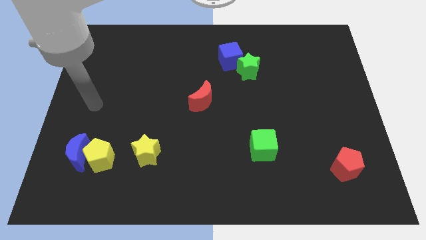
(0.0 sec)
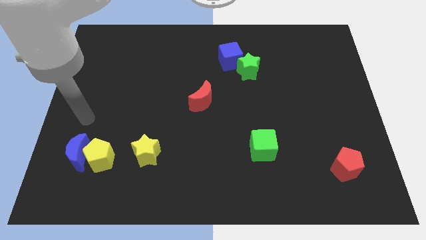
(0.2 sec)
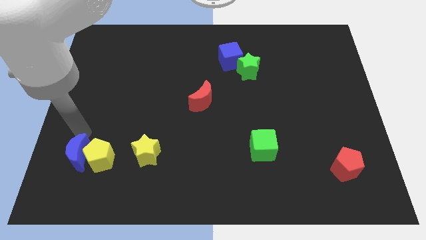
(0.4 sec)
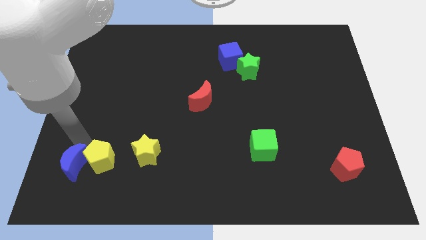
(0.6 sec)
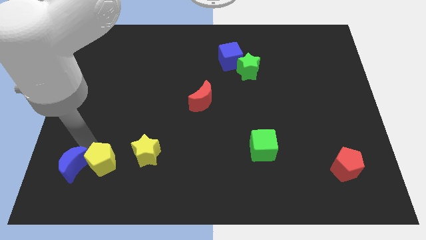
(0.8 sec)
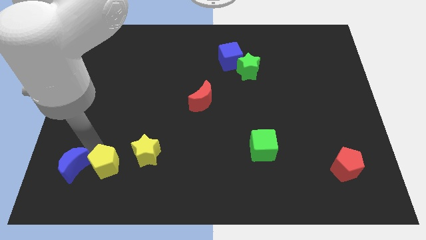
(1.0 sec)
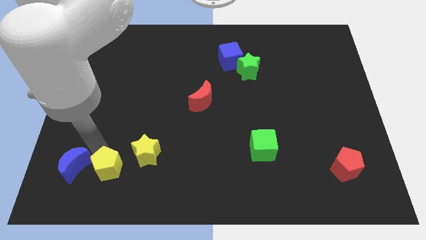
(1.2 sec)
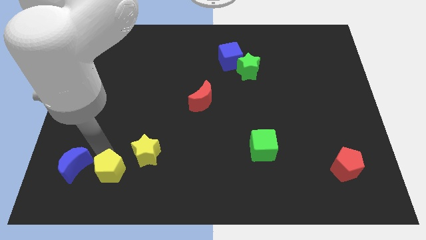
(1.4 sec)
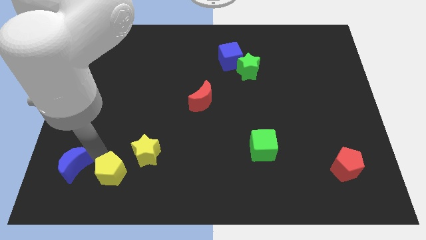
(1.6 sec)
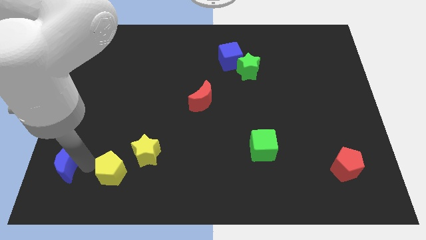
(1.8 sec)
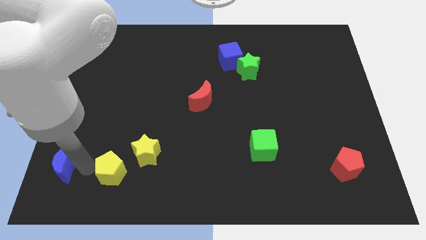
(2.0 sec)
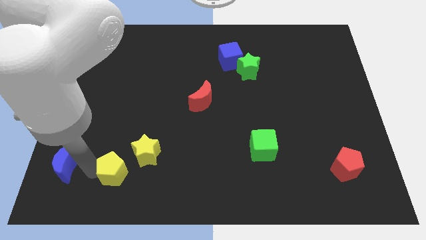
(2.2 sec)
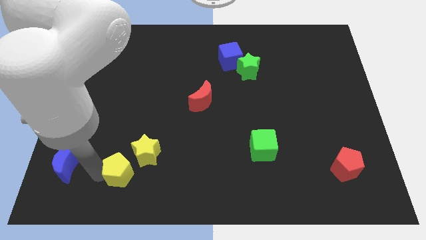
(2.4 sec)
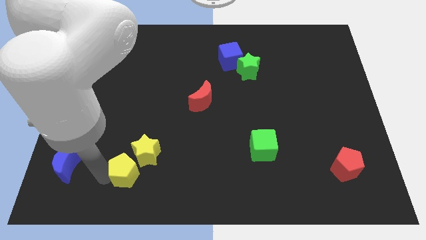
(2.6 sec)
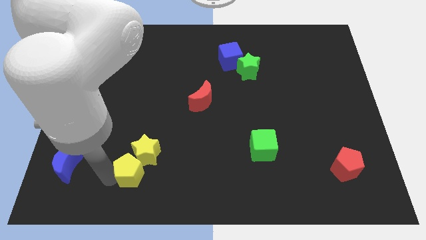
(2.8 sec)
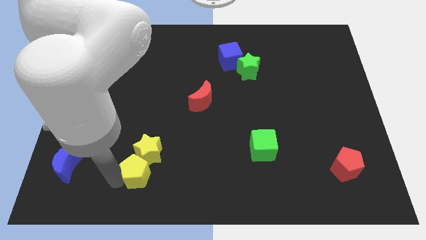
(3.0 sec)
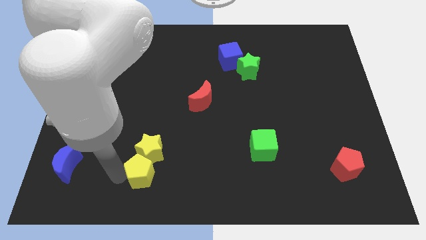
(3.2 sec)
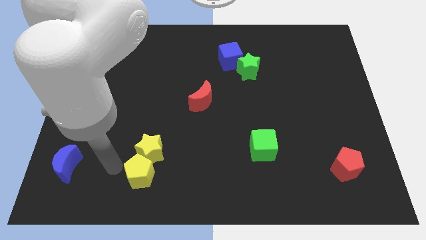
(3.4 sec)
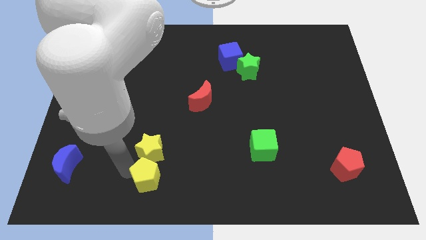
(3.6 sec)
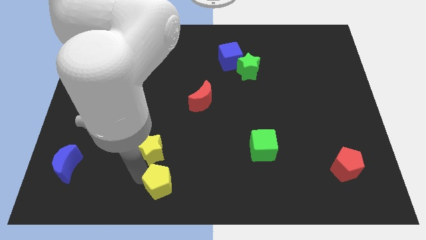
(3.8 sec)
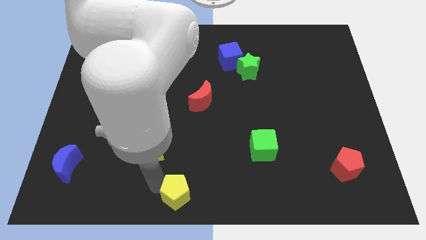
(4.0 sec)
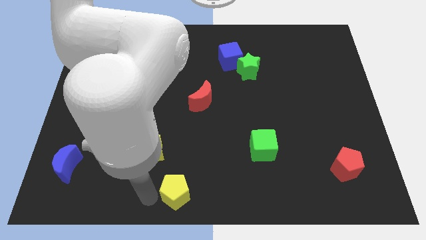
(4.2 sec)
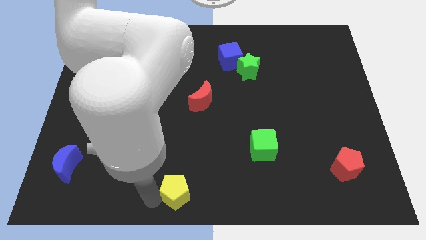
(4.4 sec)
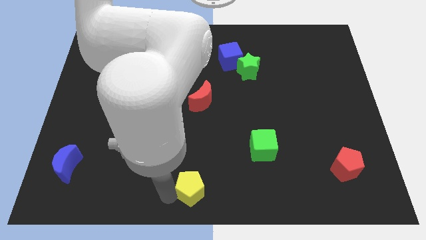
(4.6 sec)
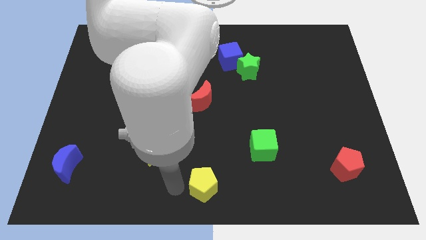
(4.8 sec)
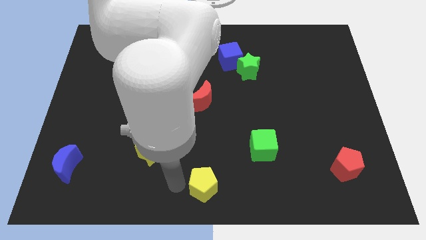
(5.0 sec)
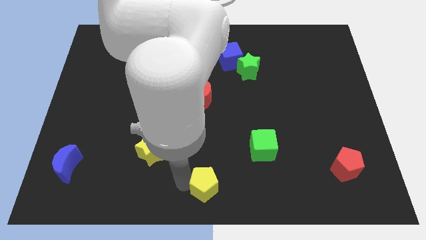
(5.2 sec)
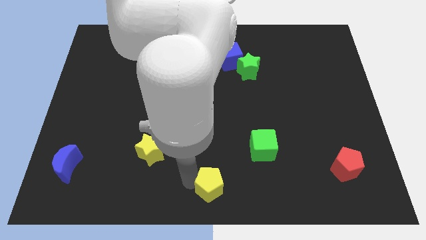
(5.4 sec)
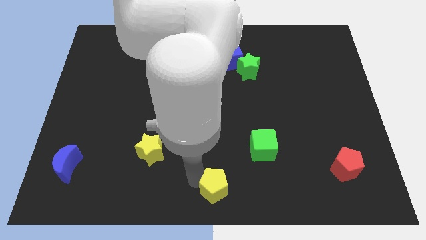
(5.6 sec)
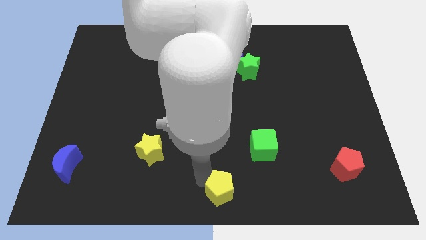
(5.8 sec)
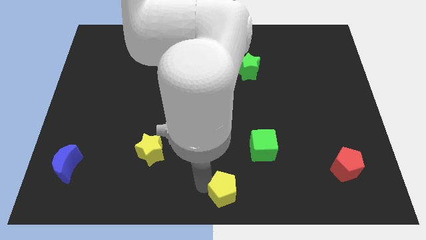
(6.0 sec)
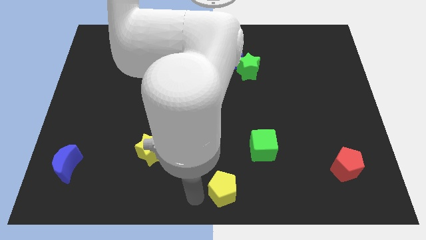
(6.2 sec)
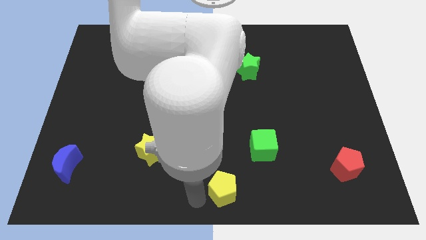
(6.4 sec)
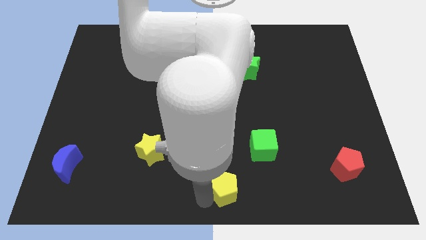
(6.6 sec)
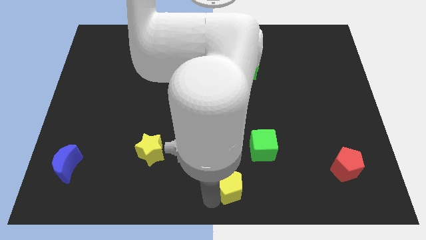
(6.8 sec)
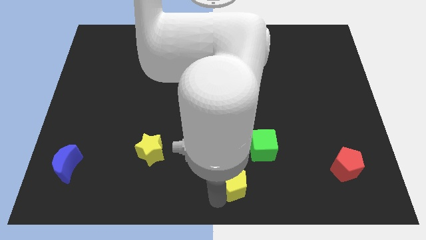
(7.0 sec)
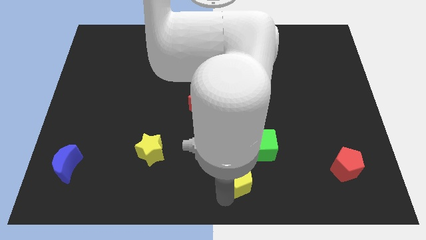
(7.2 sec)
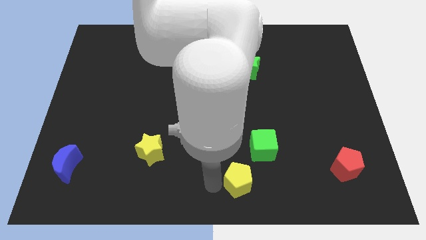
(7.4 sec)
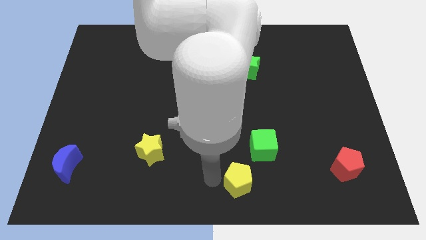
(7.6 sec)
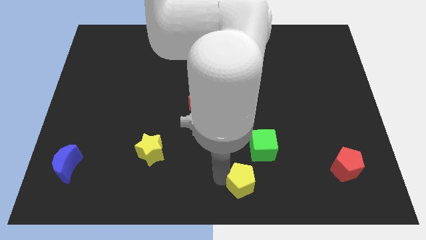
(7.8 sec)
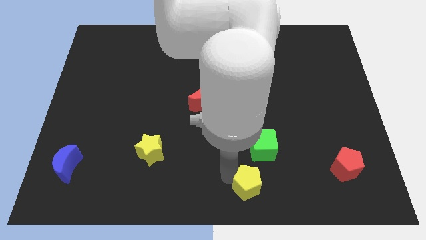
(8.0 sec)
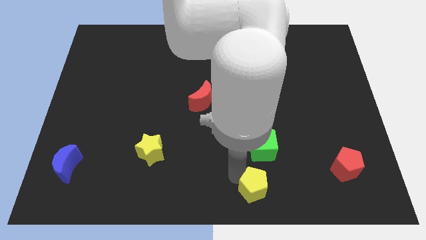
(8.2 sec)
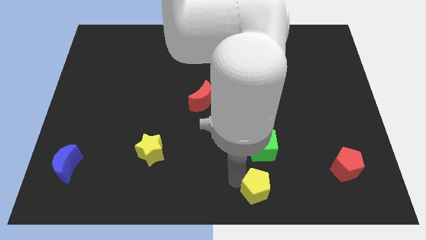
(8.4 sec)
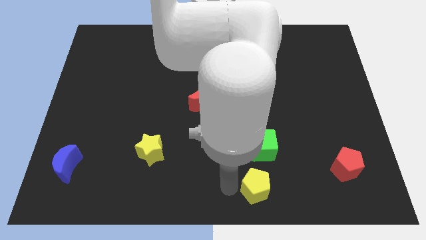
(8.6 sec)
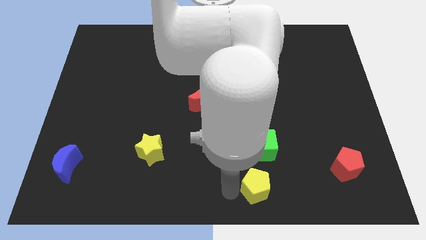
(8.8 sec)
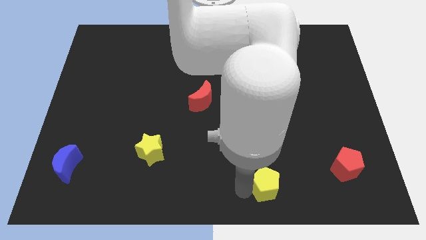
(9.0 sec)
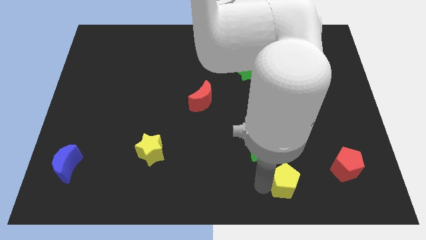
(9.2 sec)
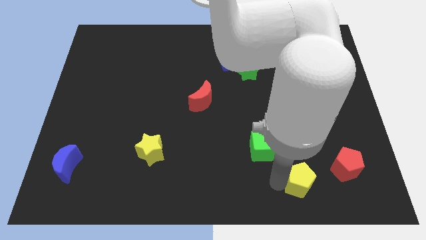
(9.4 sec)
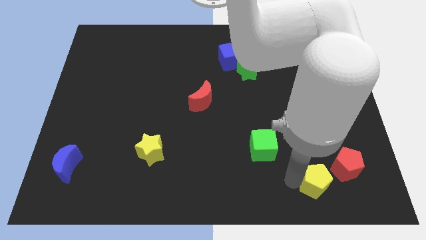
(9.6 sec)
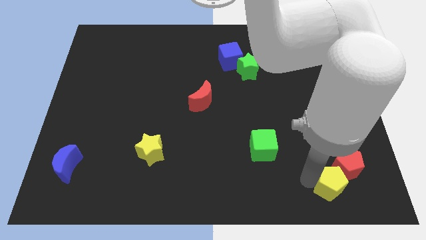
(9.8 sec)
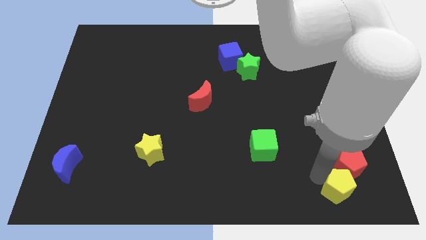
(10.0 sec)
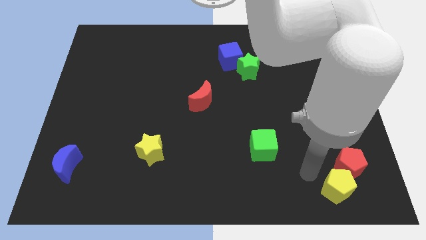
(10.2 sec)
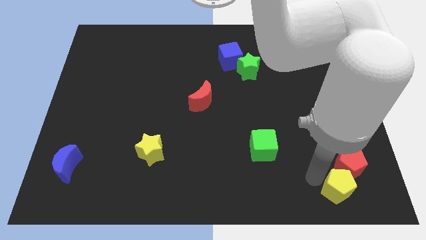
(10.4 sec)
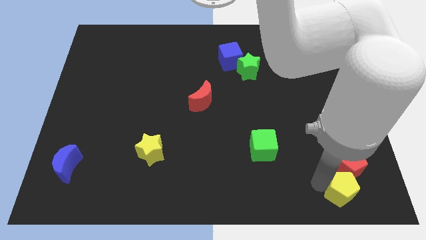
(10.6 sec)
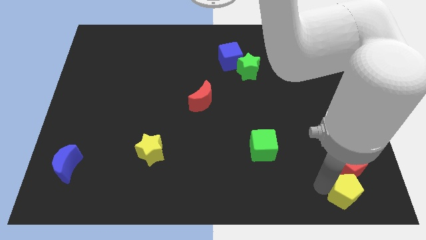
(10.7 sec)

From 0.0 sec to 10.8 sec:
push the yellow pentagon to the bottom right corner

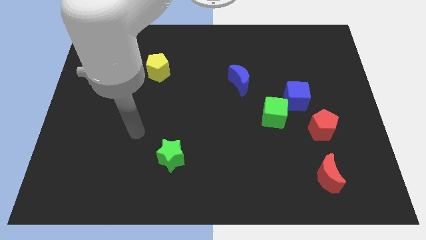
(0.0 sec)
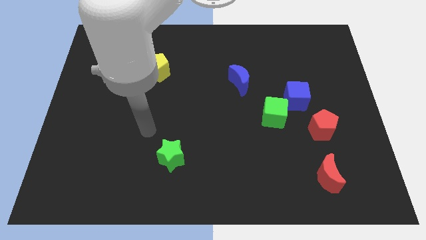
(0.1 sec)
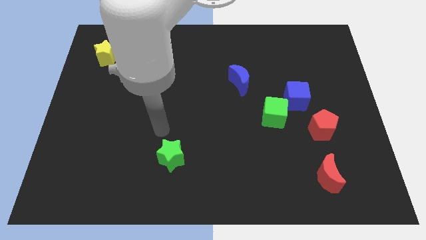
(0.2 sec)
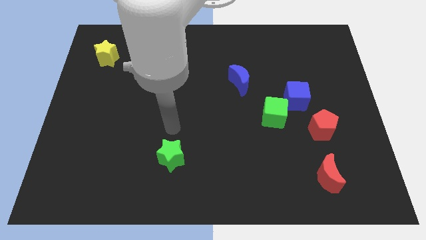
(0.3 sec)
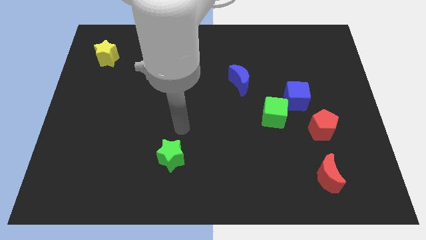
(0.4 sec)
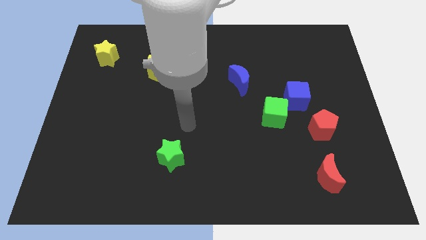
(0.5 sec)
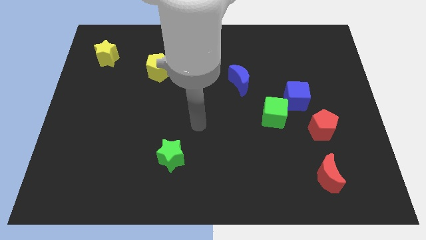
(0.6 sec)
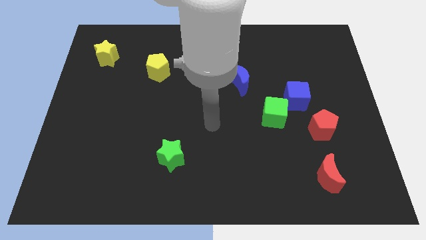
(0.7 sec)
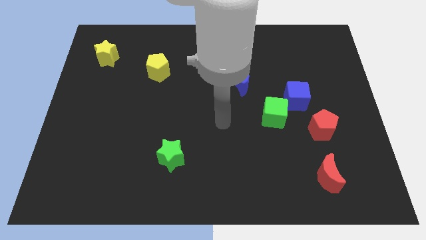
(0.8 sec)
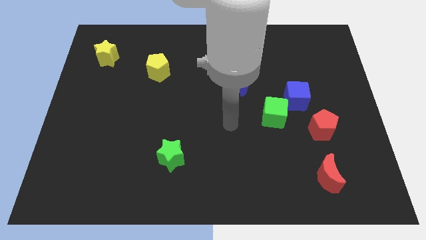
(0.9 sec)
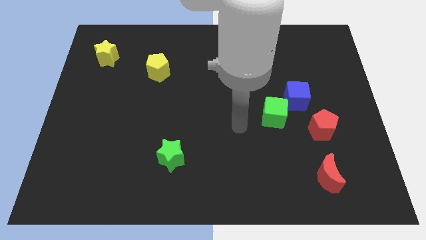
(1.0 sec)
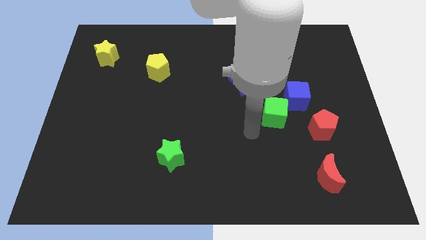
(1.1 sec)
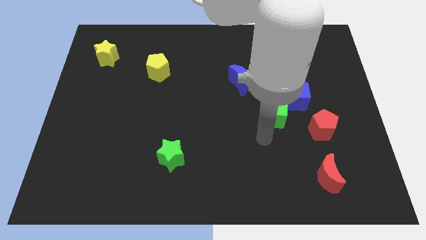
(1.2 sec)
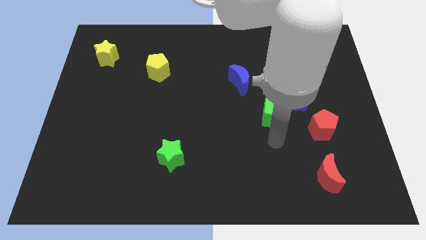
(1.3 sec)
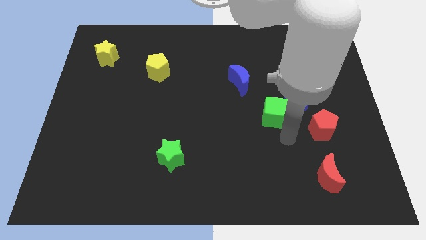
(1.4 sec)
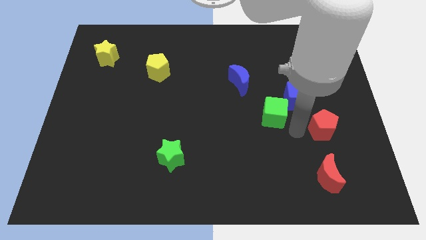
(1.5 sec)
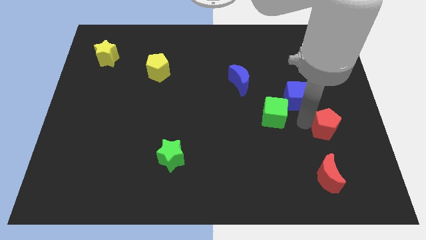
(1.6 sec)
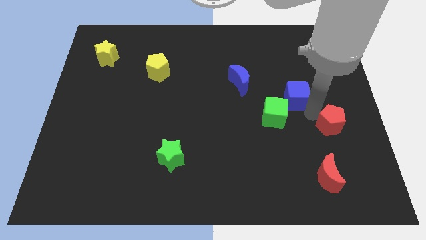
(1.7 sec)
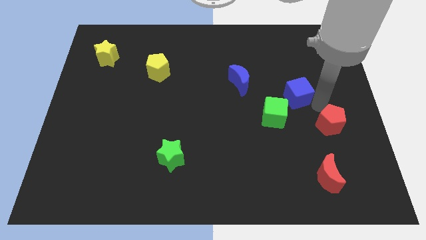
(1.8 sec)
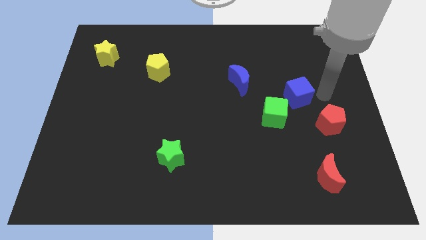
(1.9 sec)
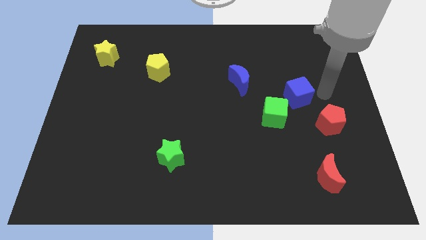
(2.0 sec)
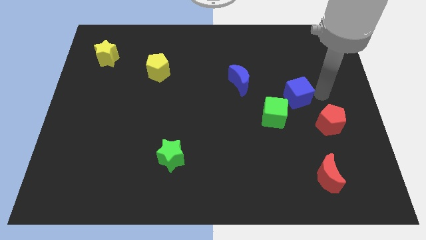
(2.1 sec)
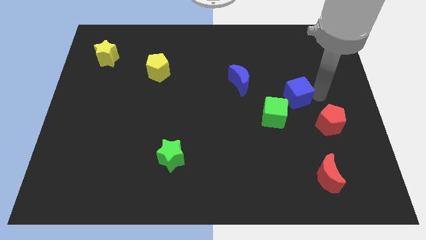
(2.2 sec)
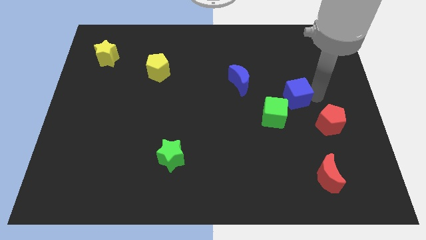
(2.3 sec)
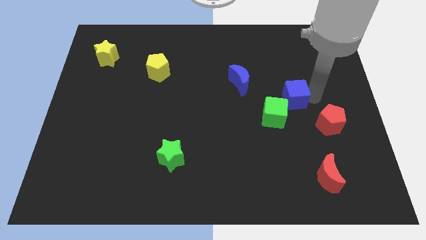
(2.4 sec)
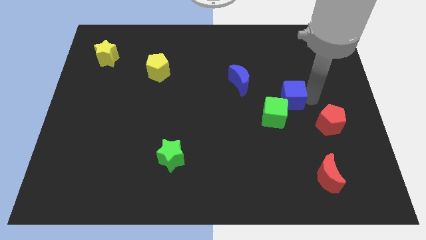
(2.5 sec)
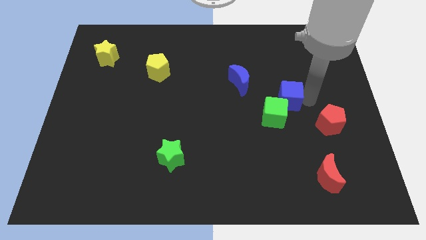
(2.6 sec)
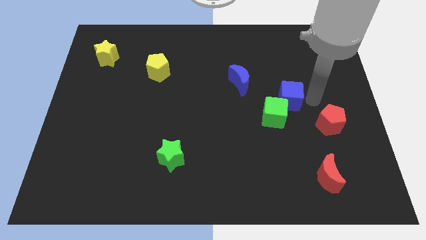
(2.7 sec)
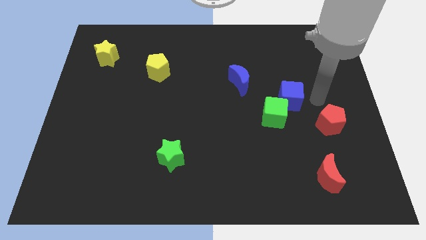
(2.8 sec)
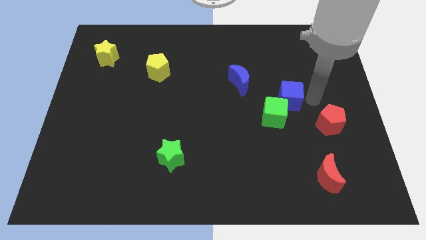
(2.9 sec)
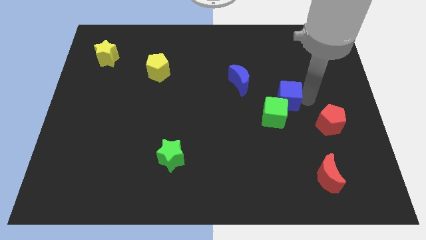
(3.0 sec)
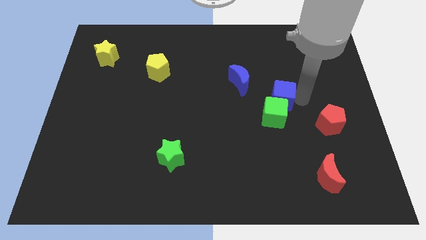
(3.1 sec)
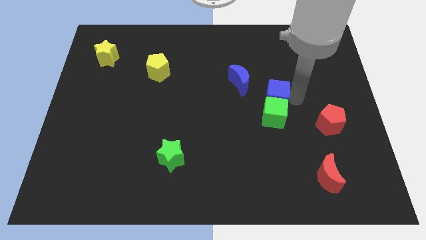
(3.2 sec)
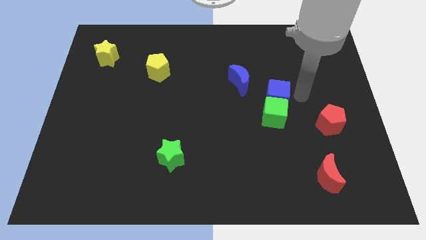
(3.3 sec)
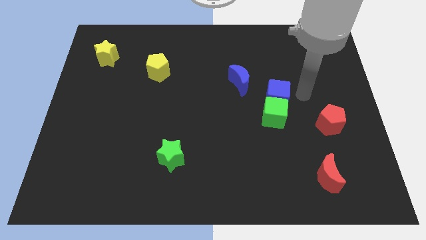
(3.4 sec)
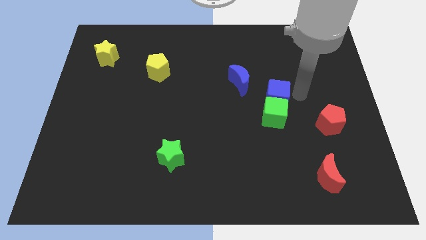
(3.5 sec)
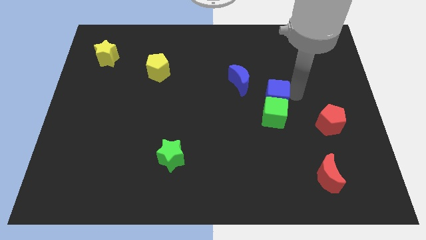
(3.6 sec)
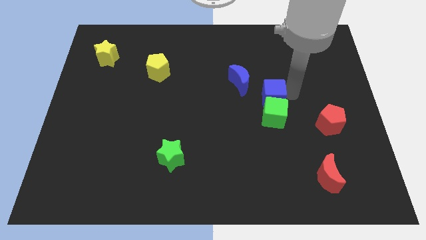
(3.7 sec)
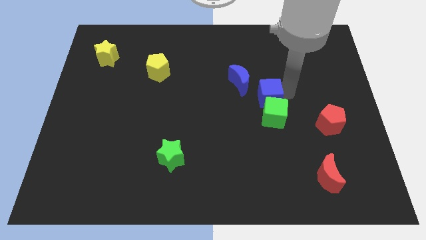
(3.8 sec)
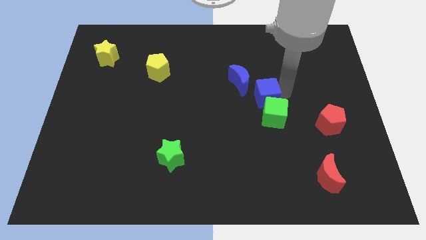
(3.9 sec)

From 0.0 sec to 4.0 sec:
slide the blue cube to the middle of the board
